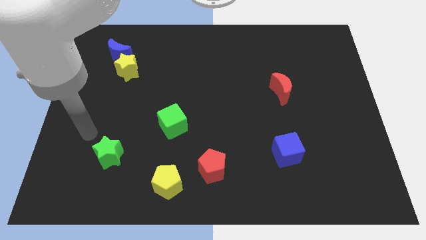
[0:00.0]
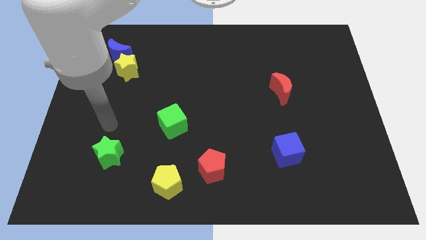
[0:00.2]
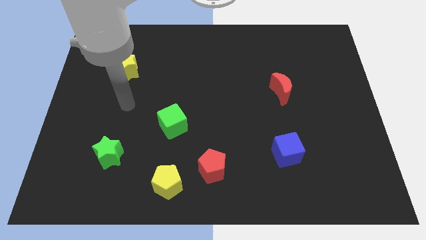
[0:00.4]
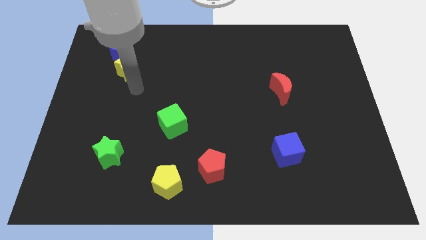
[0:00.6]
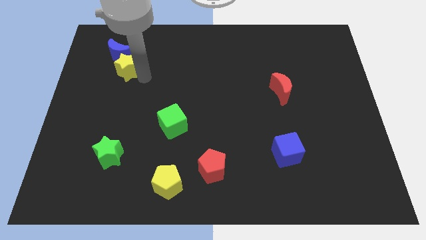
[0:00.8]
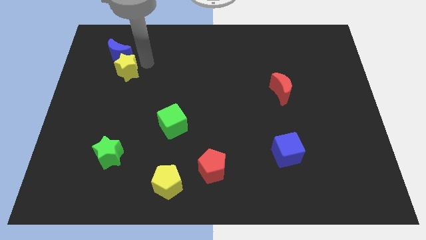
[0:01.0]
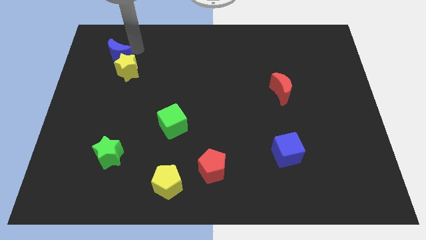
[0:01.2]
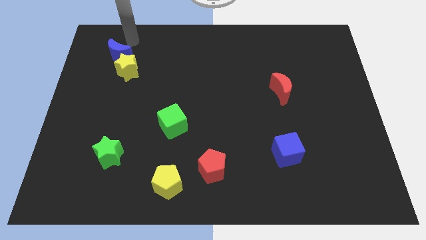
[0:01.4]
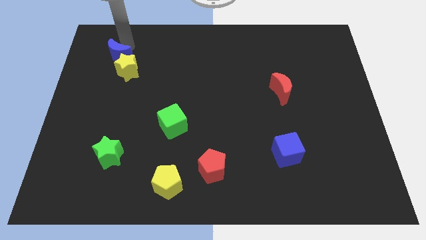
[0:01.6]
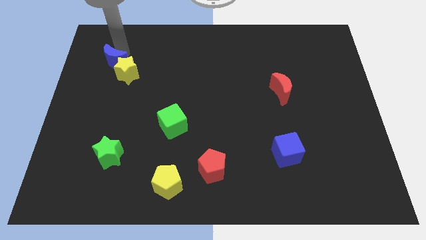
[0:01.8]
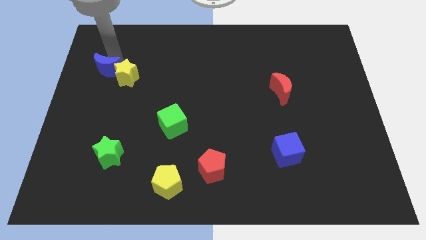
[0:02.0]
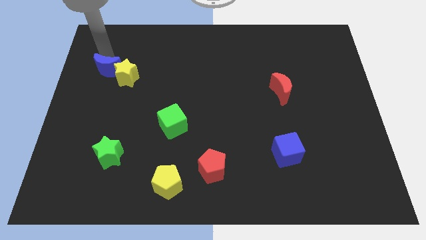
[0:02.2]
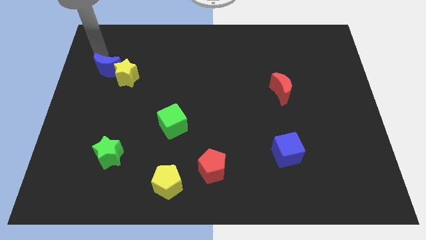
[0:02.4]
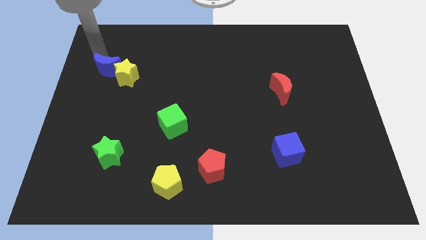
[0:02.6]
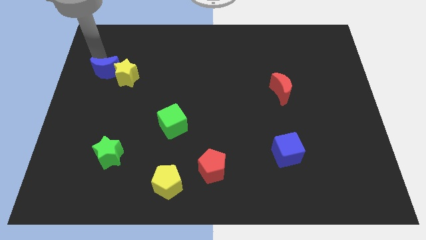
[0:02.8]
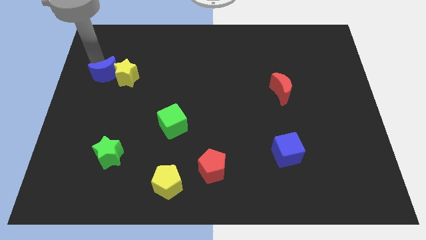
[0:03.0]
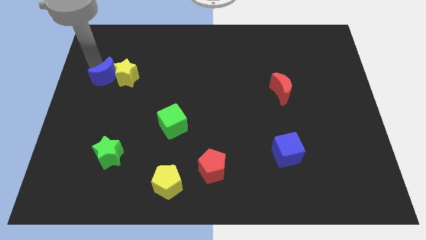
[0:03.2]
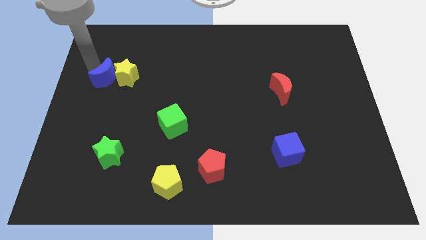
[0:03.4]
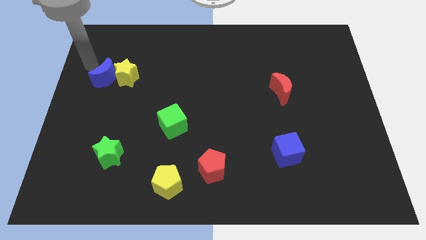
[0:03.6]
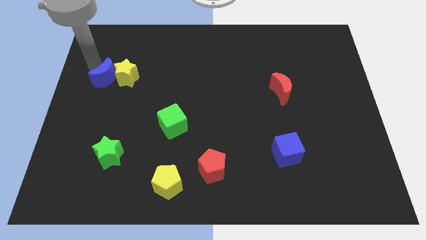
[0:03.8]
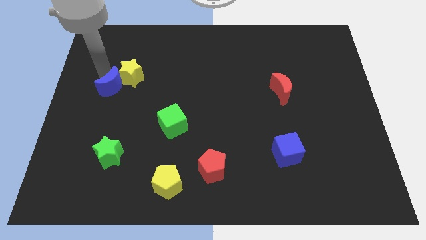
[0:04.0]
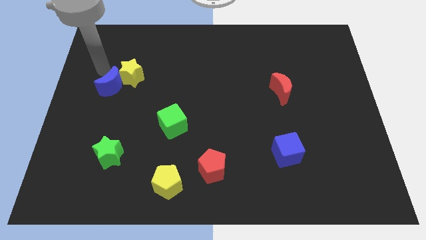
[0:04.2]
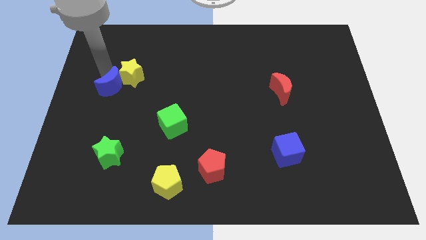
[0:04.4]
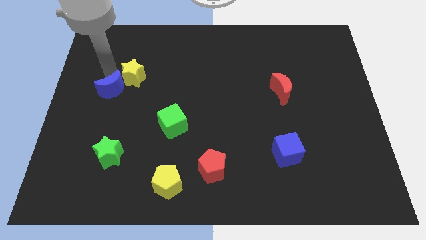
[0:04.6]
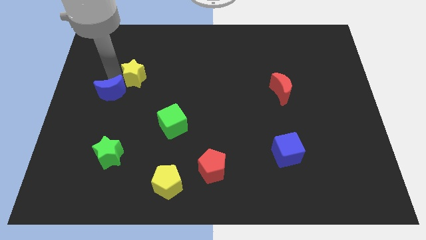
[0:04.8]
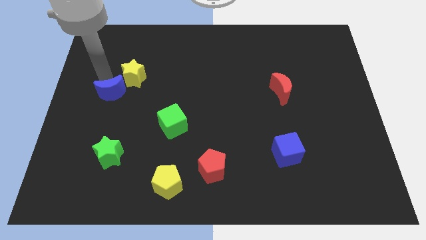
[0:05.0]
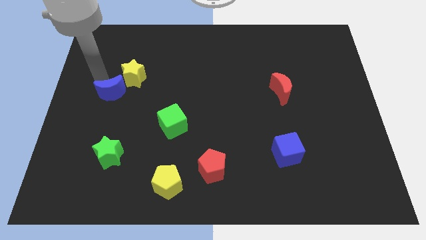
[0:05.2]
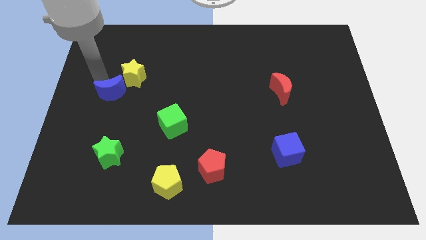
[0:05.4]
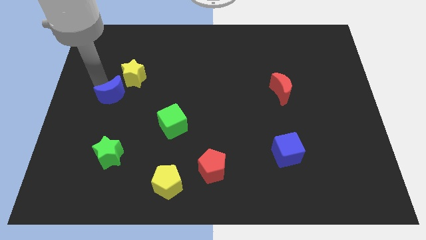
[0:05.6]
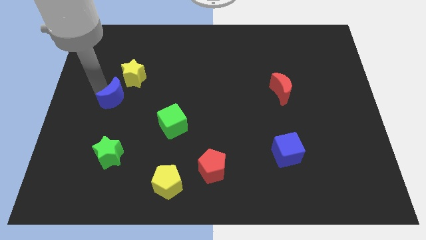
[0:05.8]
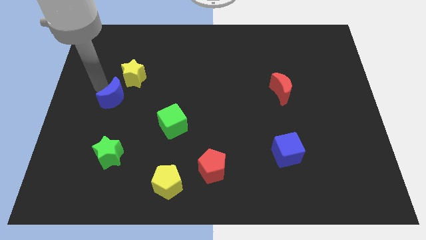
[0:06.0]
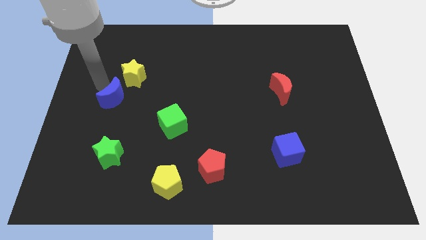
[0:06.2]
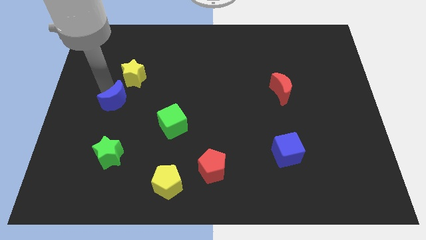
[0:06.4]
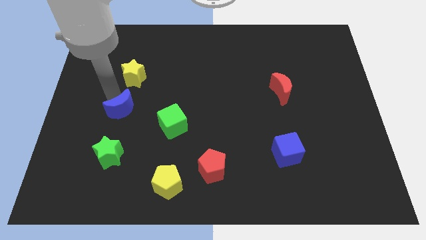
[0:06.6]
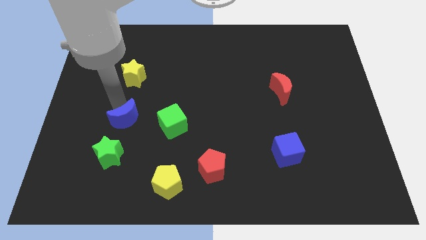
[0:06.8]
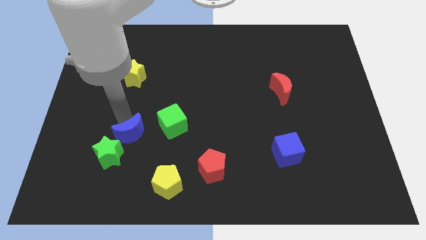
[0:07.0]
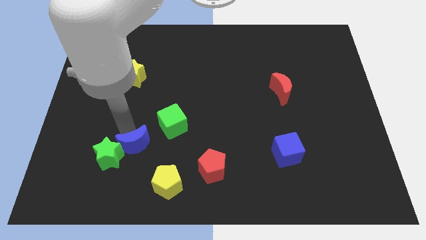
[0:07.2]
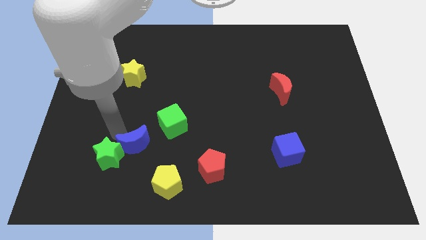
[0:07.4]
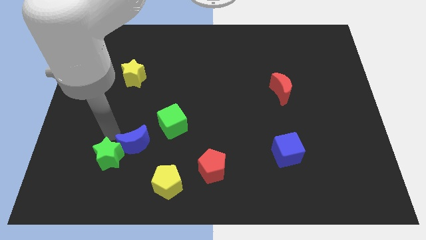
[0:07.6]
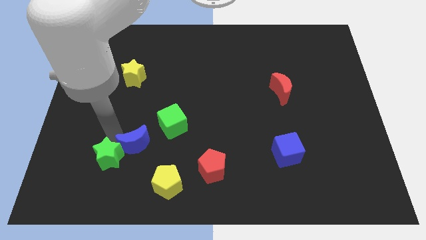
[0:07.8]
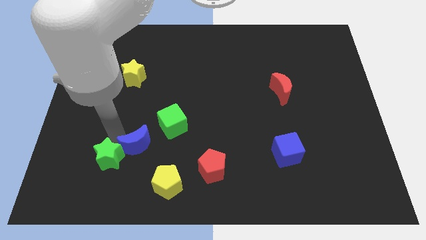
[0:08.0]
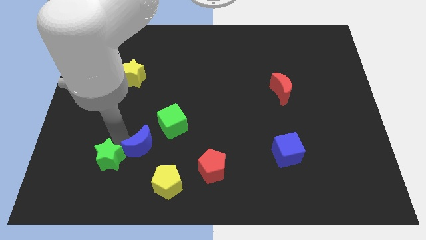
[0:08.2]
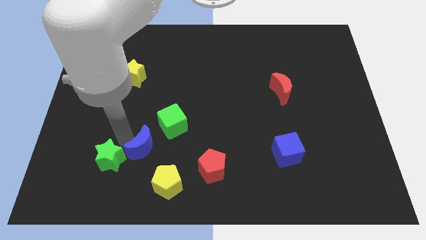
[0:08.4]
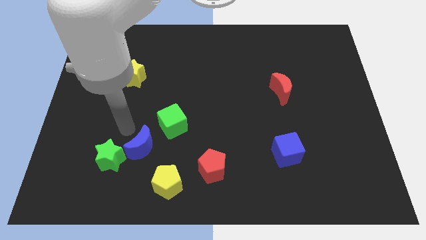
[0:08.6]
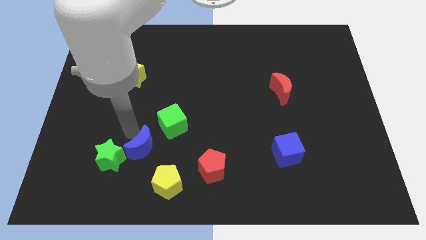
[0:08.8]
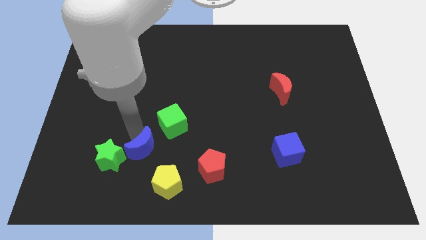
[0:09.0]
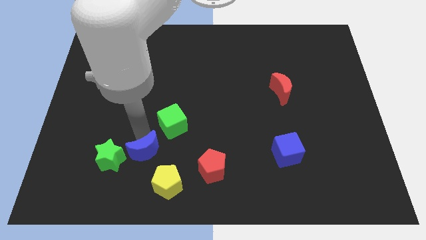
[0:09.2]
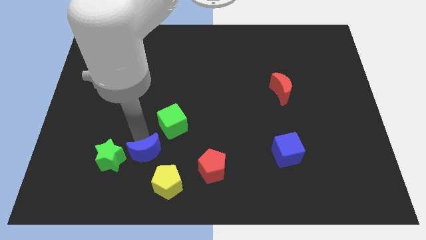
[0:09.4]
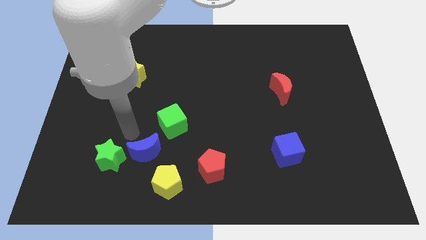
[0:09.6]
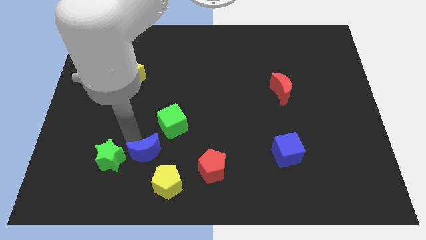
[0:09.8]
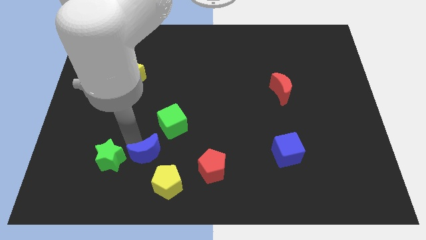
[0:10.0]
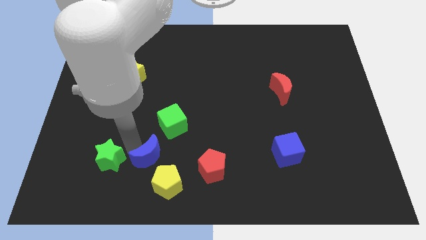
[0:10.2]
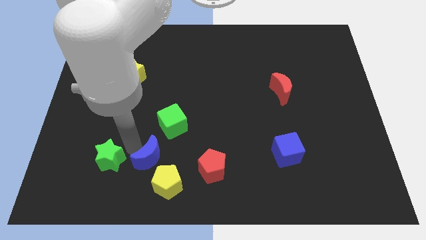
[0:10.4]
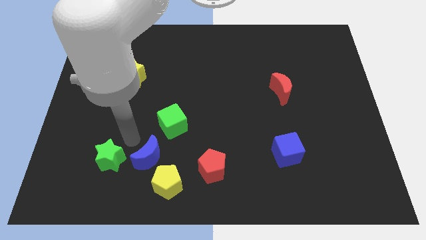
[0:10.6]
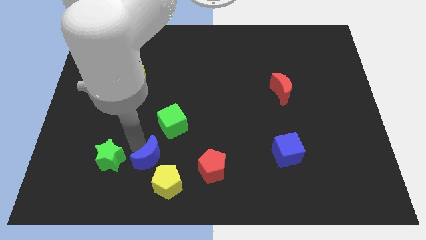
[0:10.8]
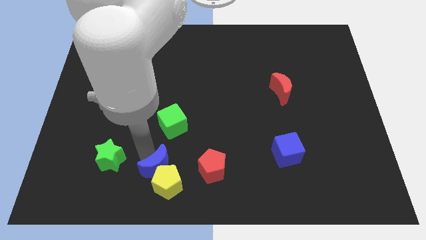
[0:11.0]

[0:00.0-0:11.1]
put the blue moon towards the yellow pentagon

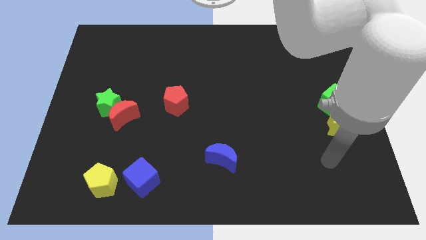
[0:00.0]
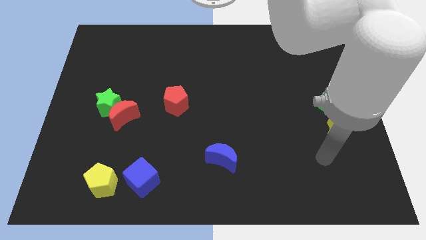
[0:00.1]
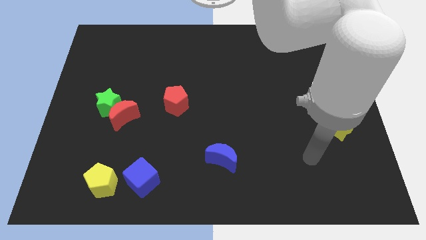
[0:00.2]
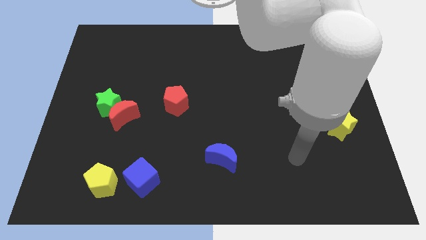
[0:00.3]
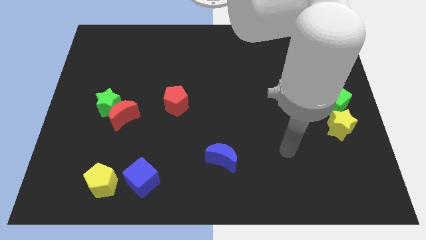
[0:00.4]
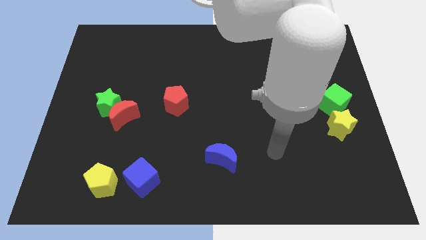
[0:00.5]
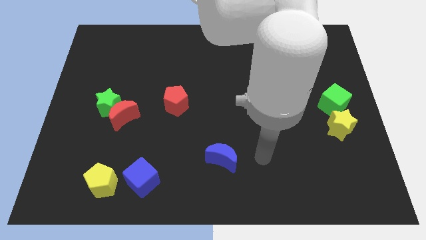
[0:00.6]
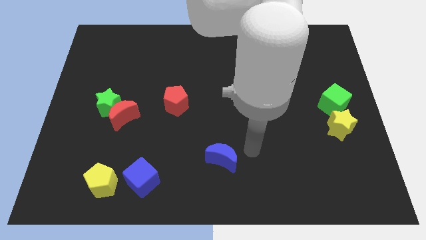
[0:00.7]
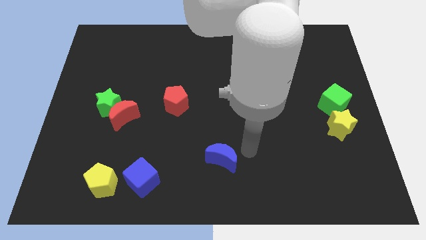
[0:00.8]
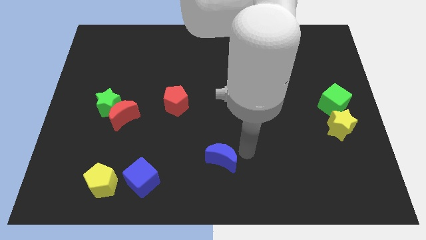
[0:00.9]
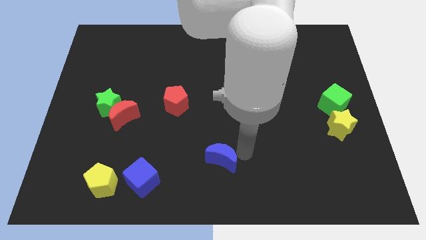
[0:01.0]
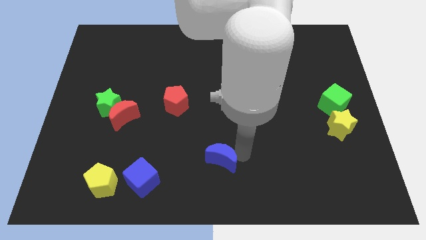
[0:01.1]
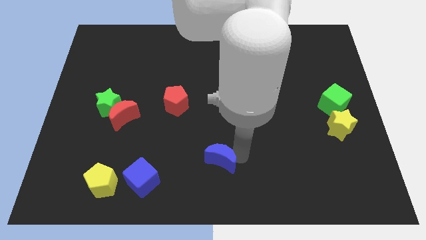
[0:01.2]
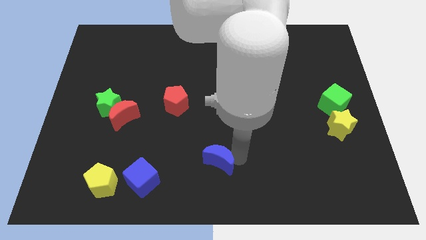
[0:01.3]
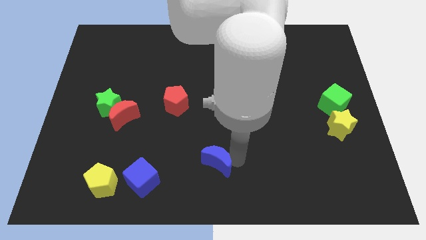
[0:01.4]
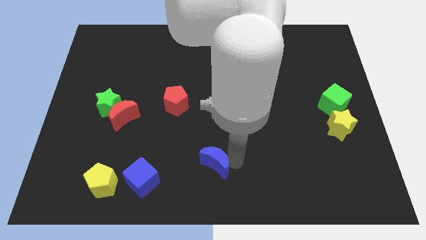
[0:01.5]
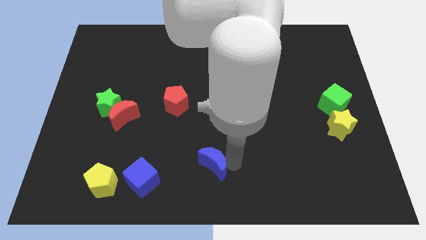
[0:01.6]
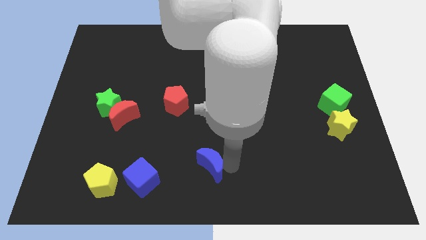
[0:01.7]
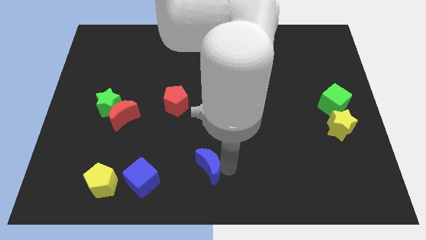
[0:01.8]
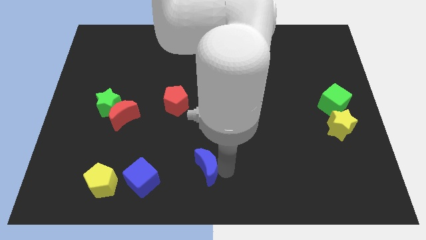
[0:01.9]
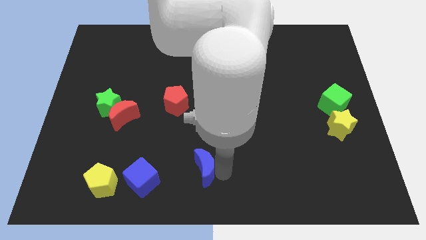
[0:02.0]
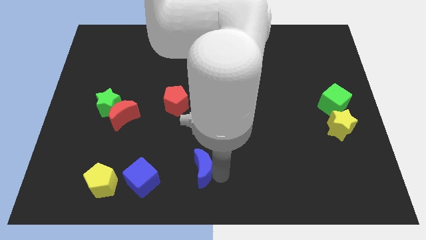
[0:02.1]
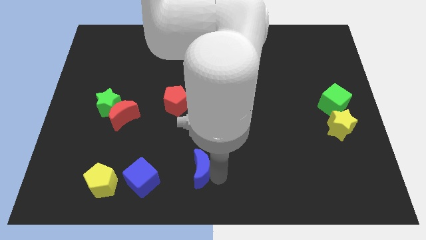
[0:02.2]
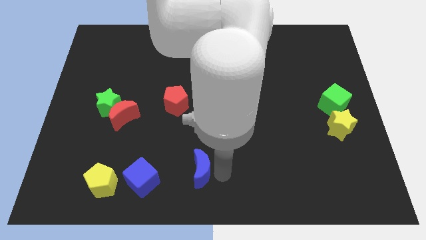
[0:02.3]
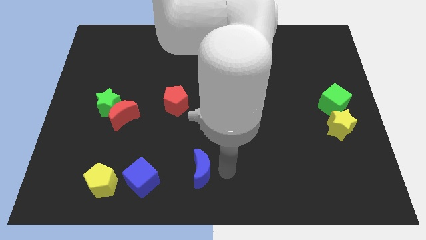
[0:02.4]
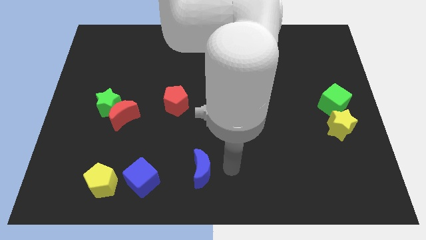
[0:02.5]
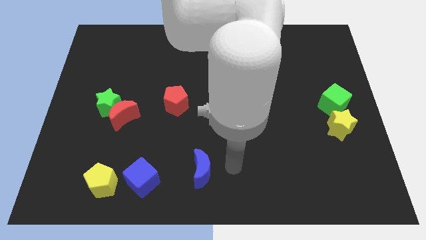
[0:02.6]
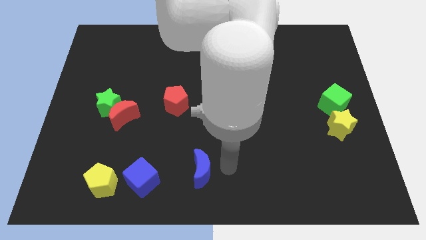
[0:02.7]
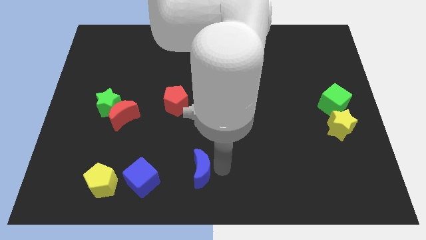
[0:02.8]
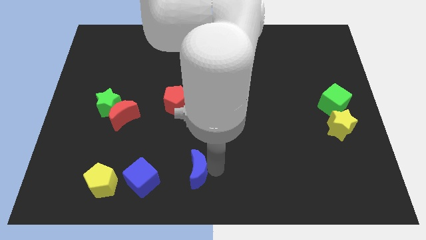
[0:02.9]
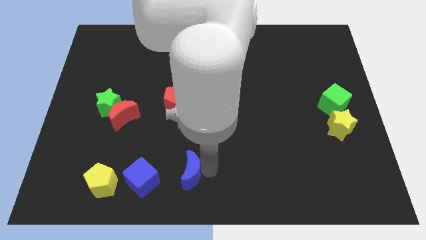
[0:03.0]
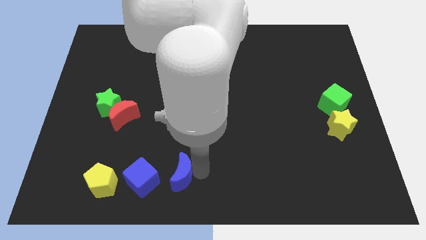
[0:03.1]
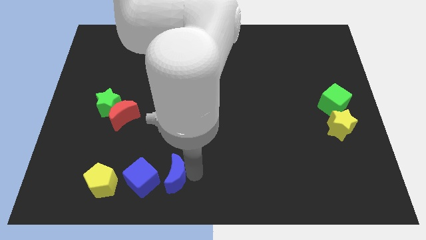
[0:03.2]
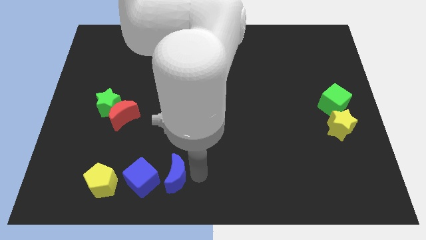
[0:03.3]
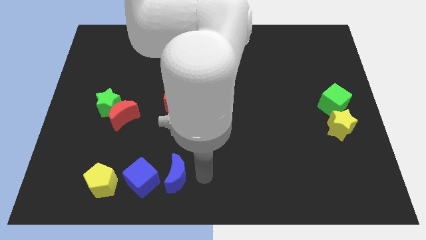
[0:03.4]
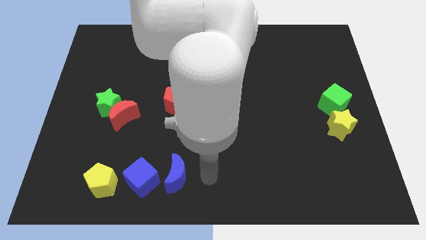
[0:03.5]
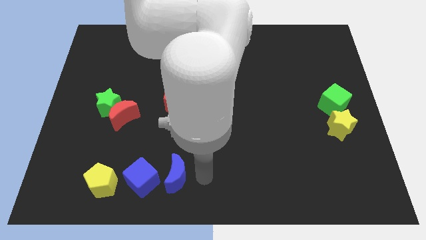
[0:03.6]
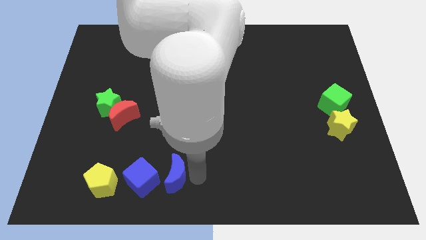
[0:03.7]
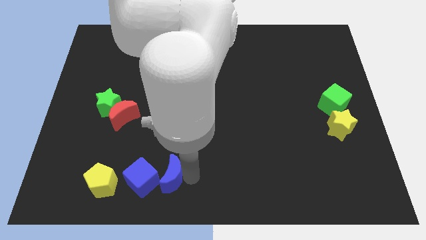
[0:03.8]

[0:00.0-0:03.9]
put the blue moon close to the blue cube
